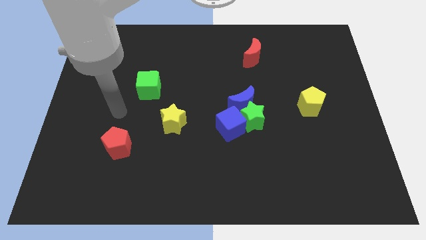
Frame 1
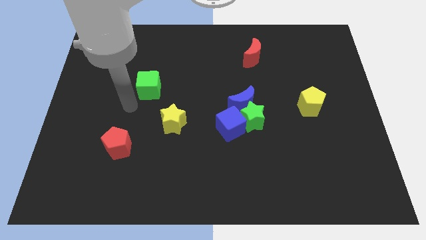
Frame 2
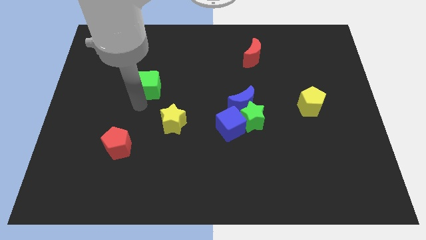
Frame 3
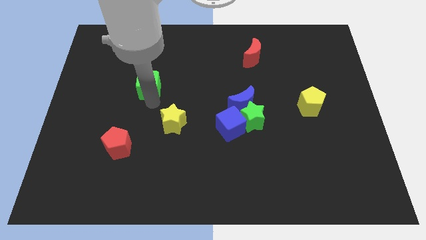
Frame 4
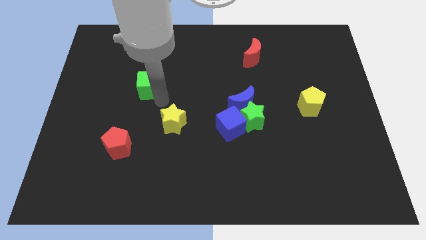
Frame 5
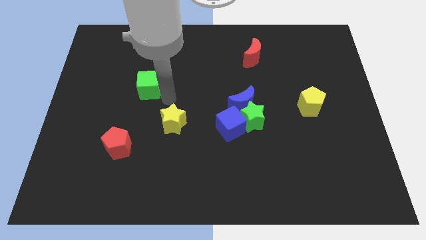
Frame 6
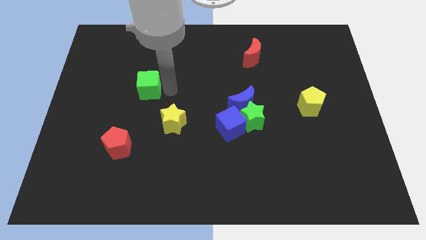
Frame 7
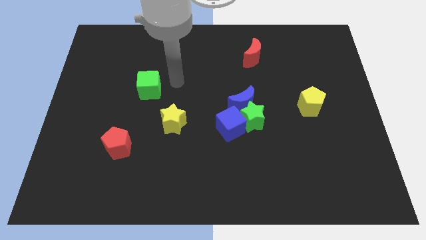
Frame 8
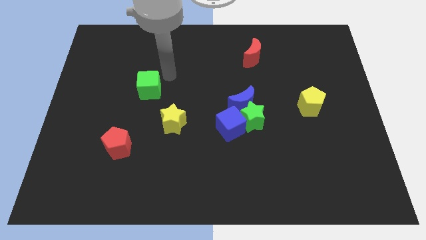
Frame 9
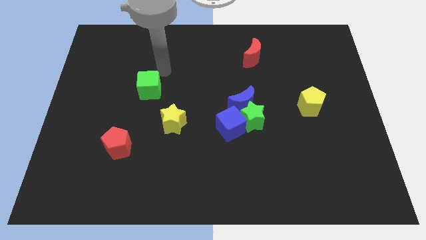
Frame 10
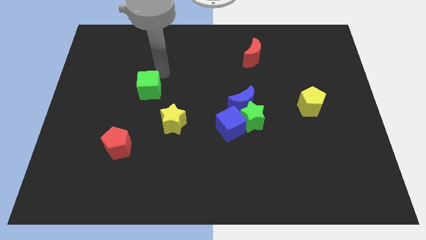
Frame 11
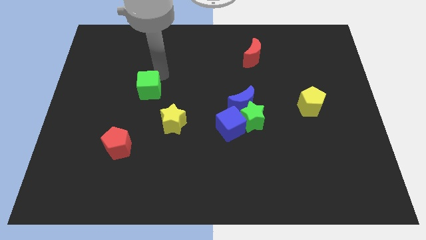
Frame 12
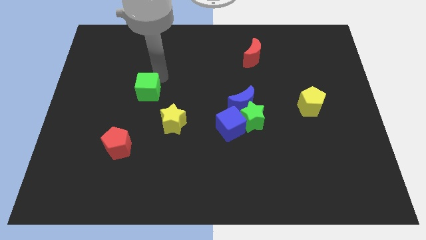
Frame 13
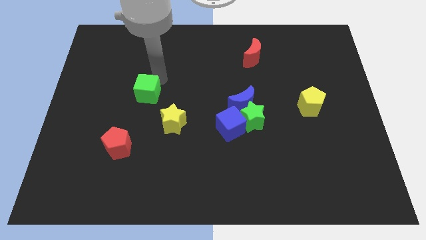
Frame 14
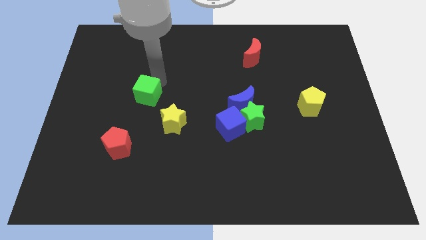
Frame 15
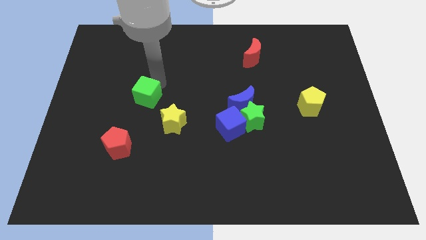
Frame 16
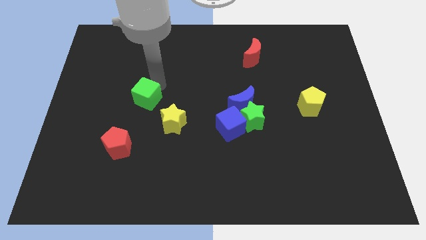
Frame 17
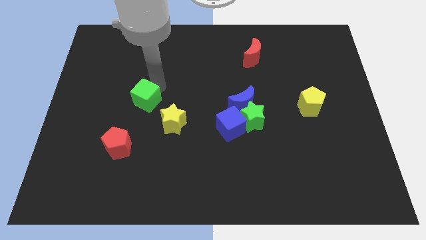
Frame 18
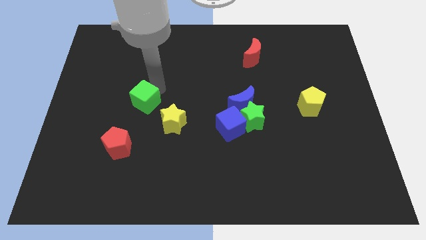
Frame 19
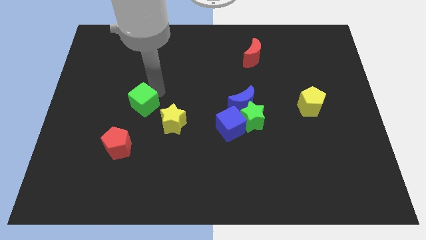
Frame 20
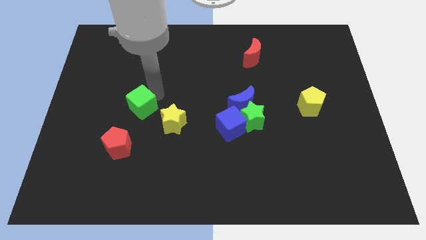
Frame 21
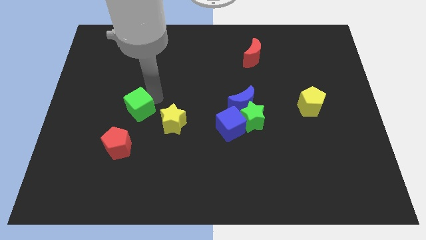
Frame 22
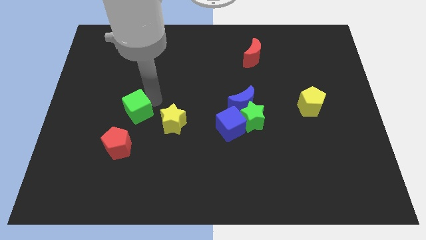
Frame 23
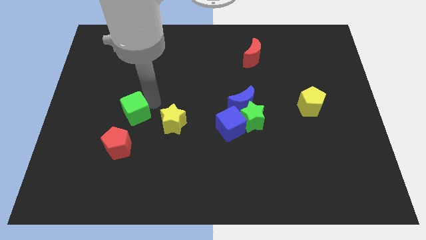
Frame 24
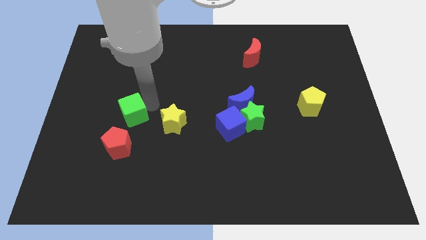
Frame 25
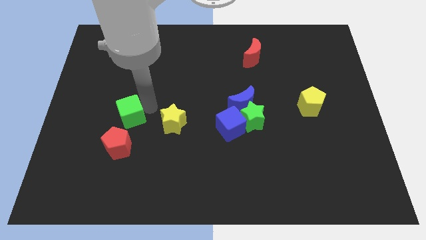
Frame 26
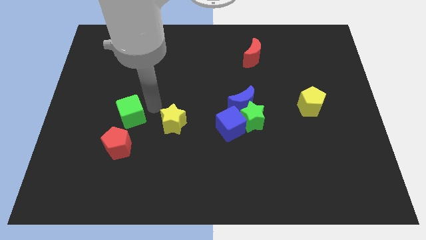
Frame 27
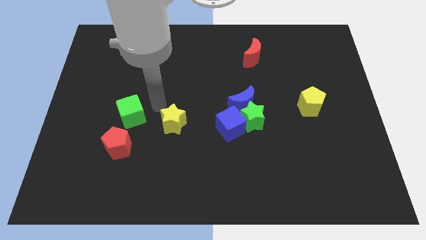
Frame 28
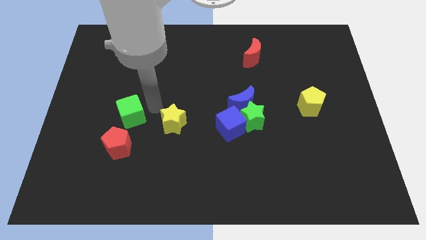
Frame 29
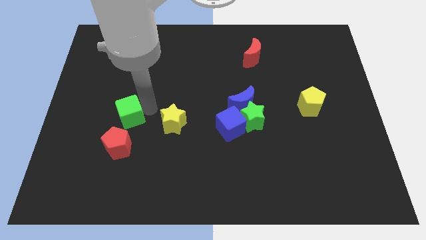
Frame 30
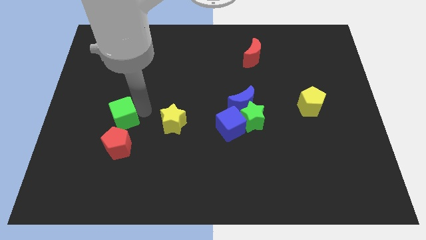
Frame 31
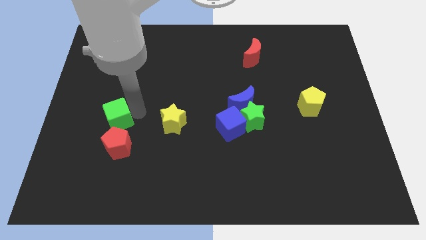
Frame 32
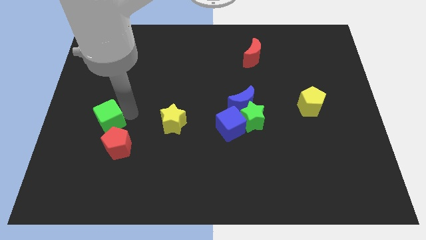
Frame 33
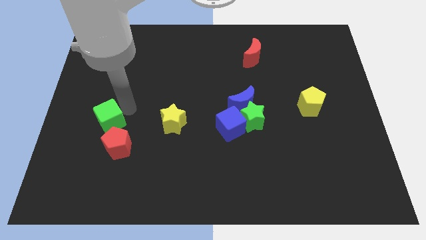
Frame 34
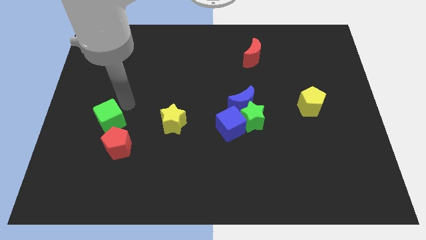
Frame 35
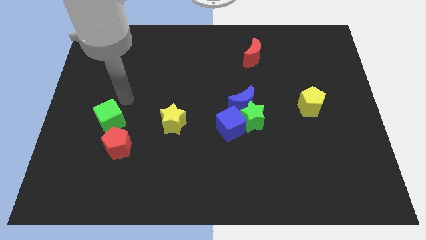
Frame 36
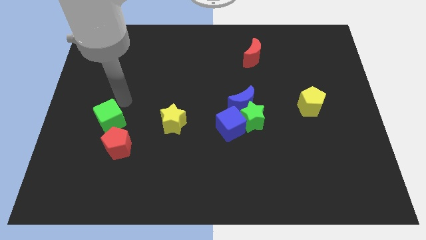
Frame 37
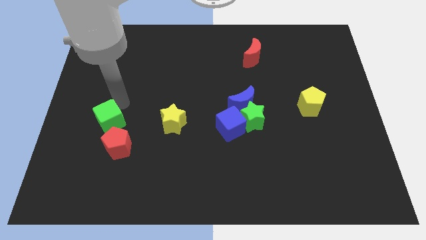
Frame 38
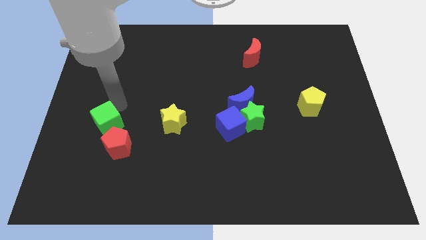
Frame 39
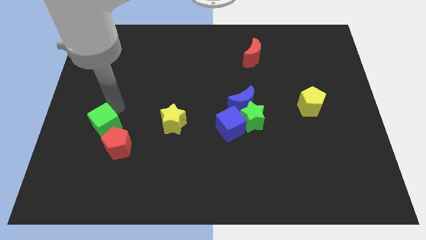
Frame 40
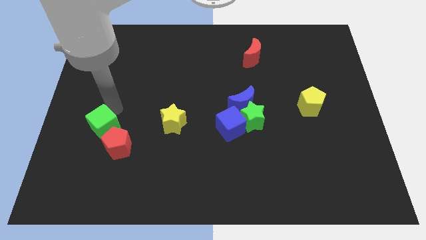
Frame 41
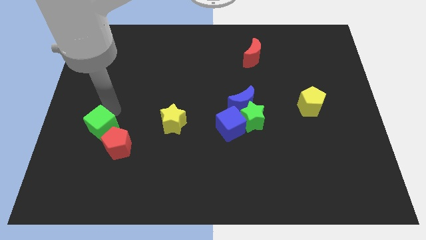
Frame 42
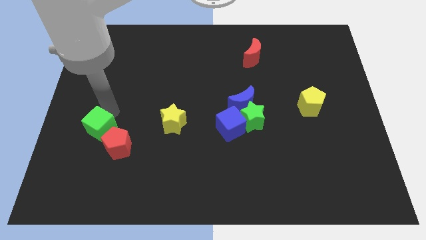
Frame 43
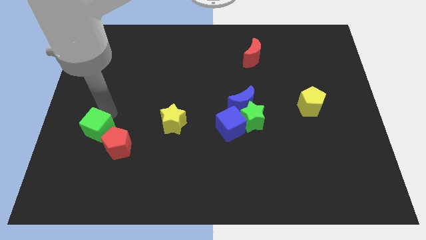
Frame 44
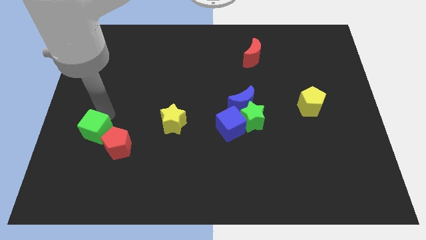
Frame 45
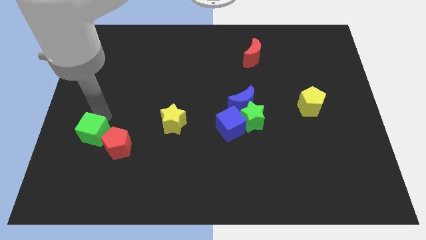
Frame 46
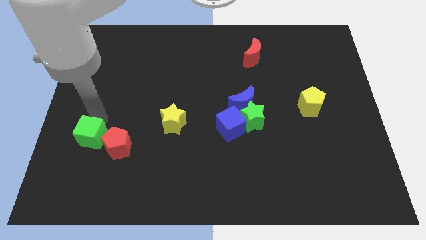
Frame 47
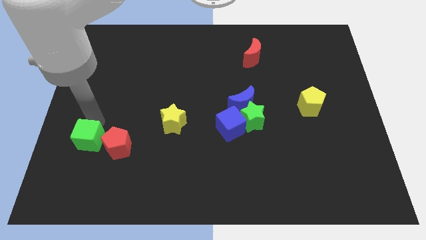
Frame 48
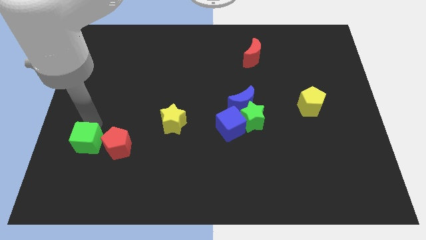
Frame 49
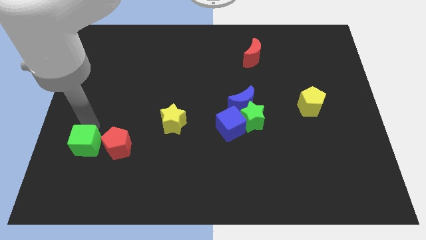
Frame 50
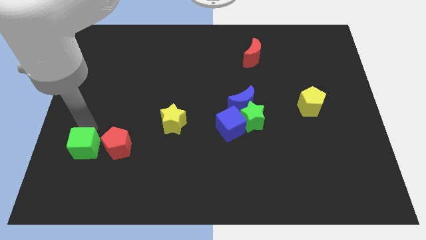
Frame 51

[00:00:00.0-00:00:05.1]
push the green cube to the bottom left side of the red pentagon

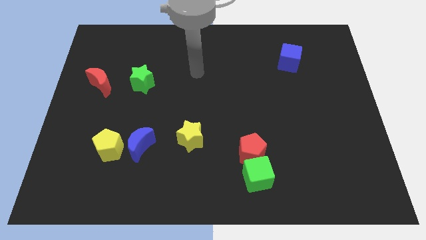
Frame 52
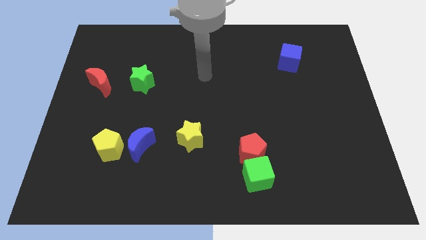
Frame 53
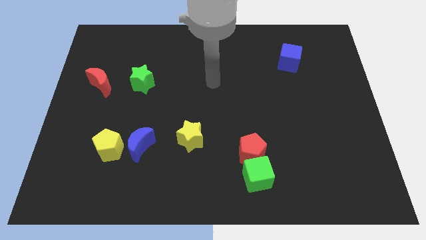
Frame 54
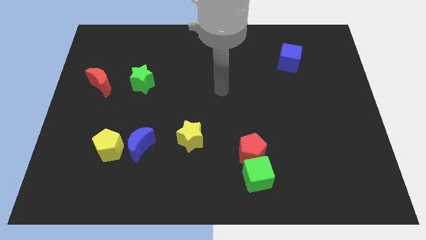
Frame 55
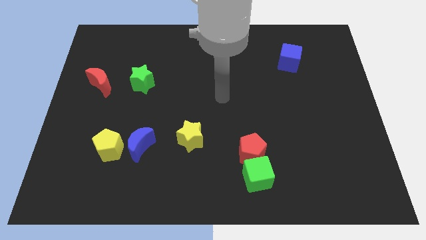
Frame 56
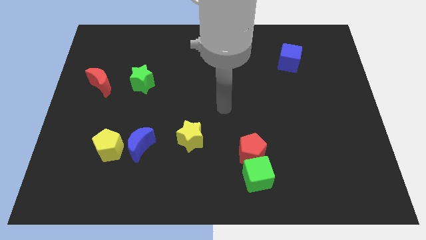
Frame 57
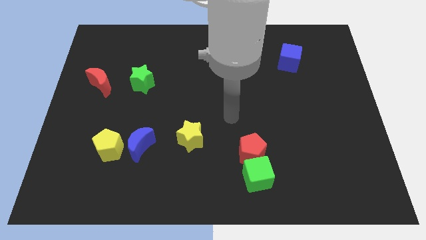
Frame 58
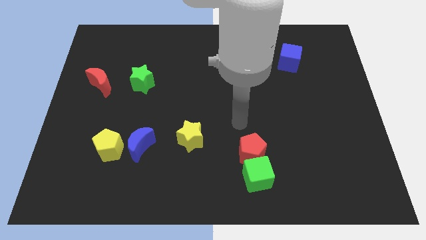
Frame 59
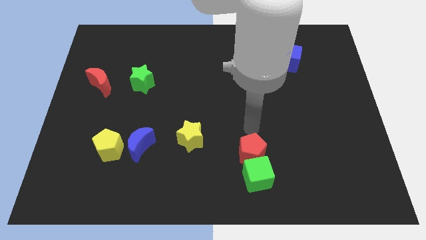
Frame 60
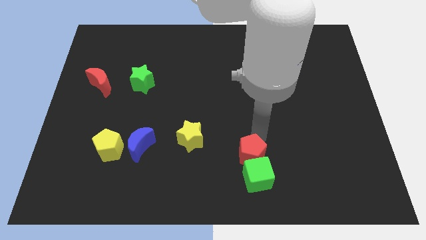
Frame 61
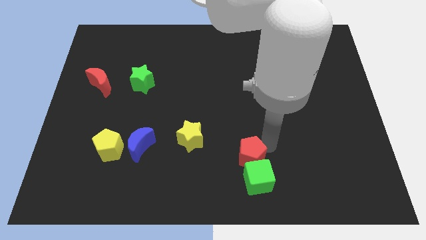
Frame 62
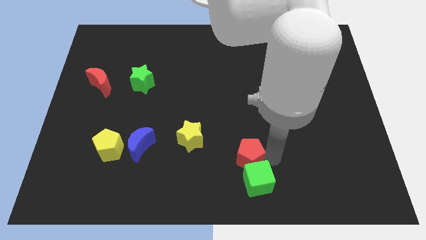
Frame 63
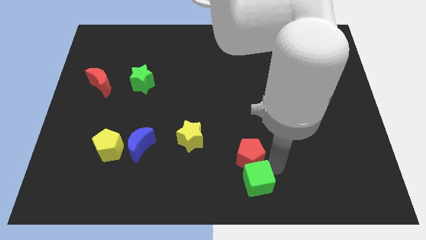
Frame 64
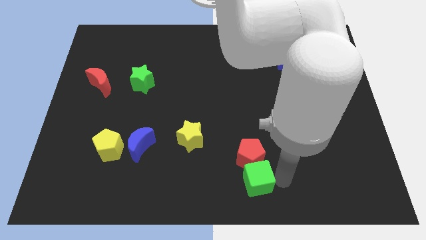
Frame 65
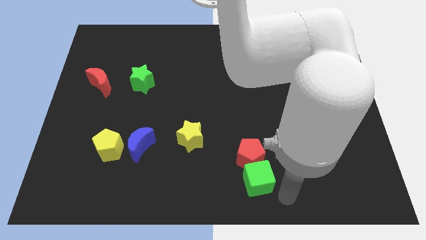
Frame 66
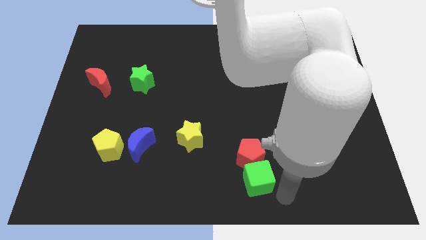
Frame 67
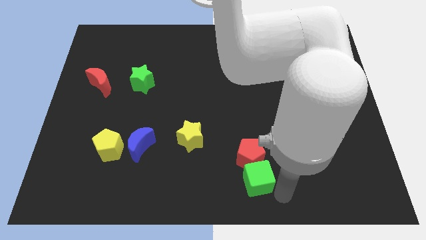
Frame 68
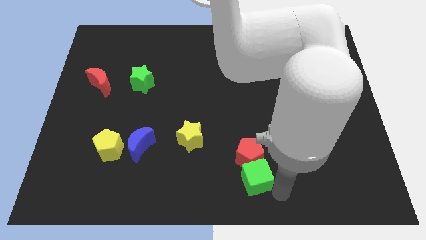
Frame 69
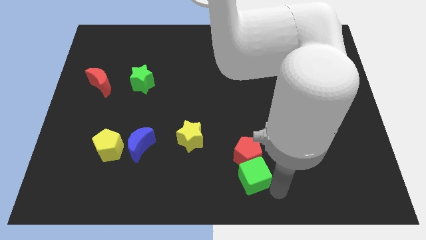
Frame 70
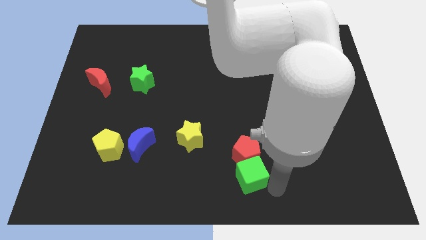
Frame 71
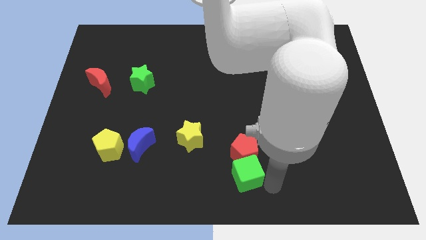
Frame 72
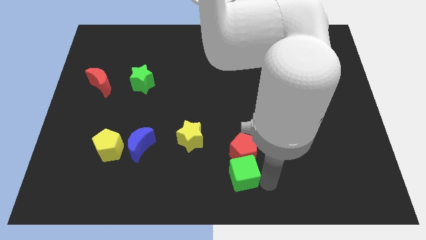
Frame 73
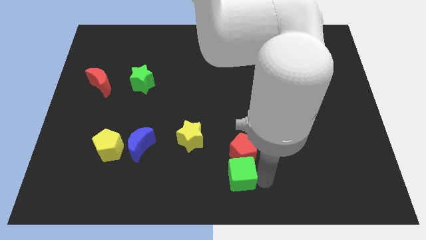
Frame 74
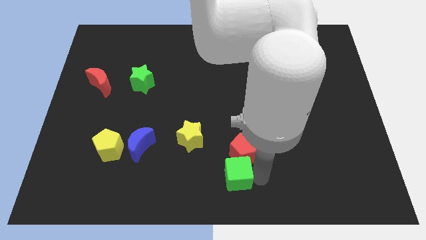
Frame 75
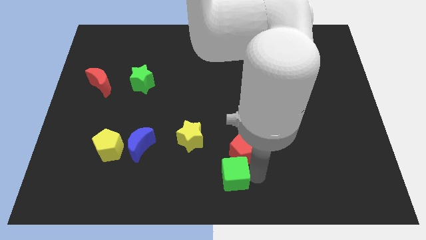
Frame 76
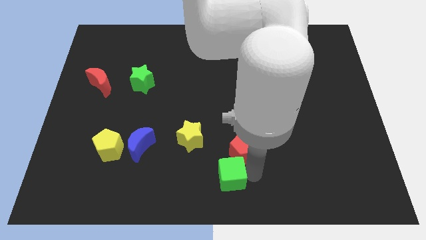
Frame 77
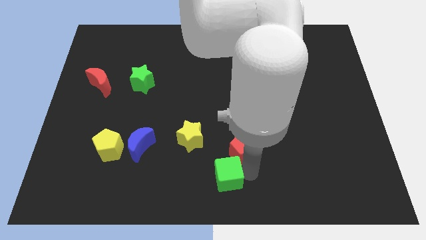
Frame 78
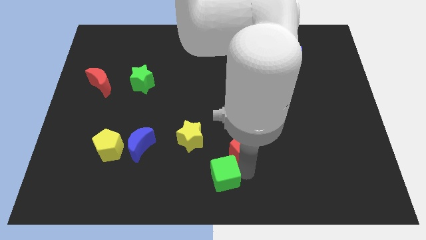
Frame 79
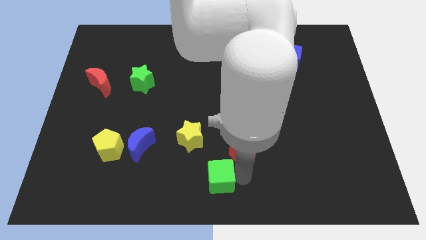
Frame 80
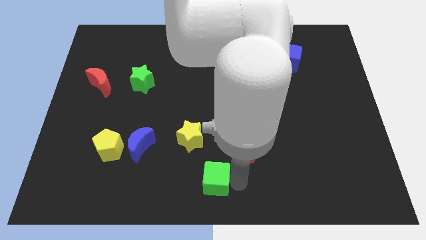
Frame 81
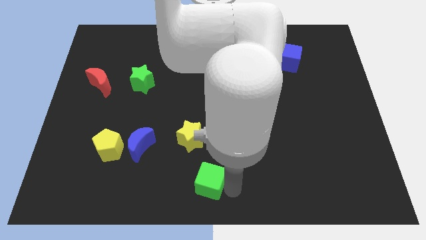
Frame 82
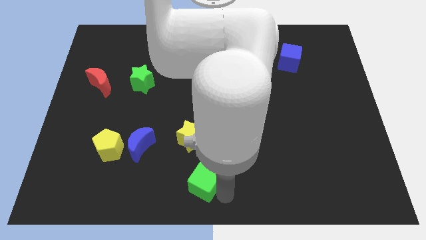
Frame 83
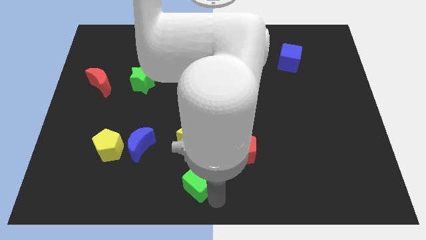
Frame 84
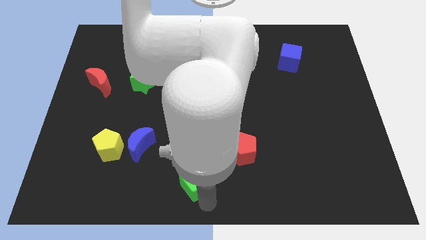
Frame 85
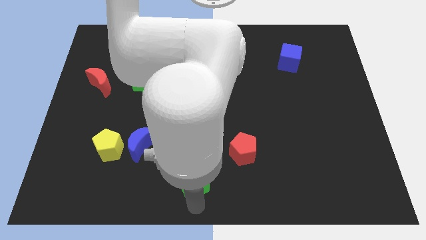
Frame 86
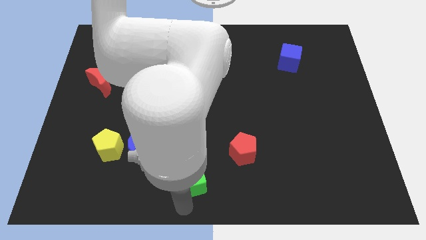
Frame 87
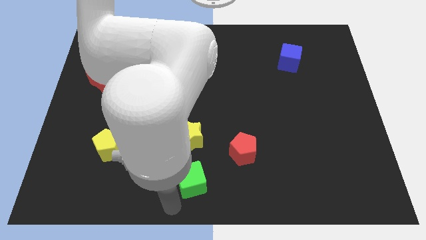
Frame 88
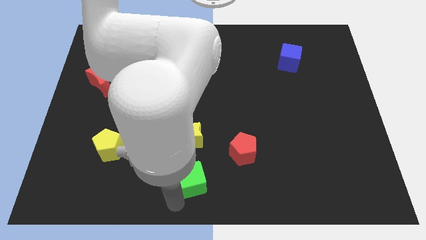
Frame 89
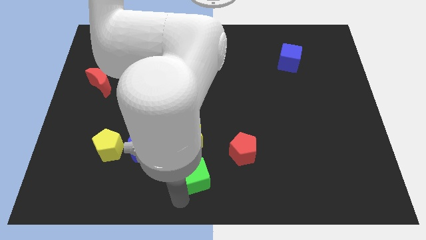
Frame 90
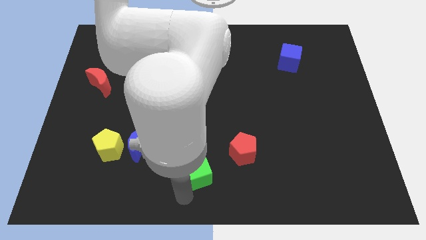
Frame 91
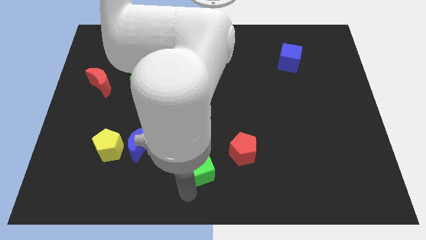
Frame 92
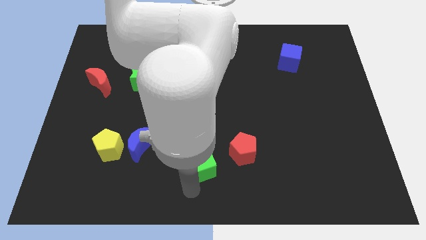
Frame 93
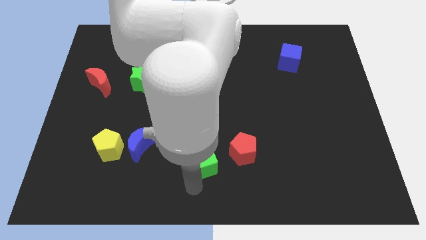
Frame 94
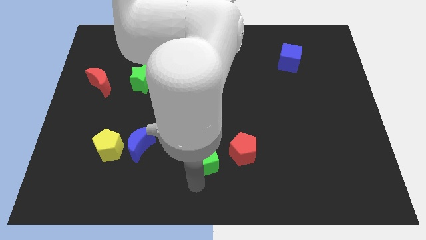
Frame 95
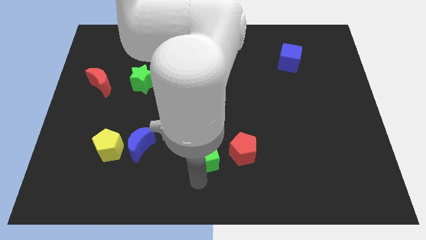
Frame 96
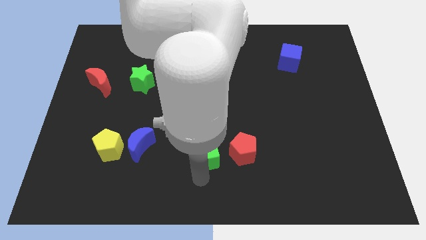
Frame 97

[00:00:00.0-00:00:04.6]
push the green cube to the right of the yellow star
